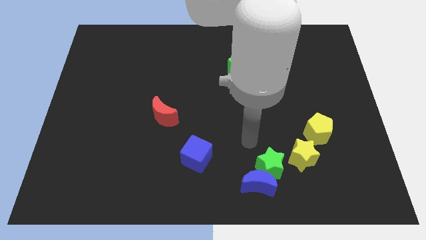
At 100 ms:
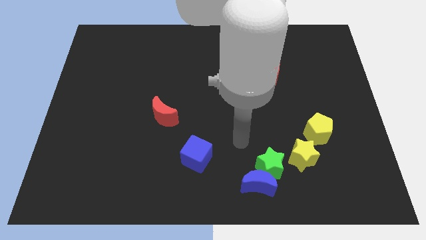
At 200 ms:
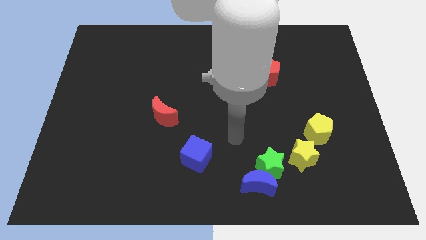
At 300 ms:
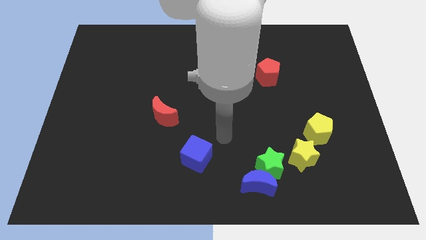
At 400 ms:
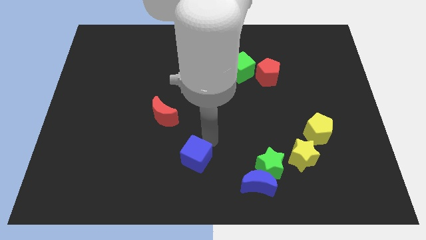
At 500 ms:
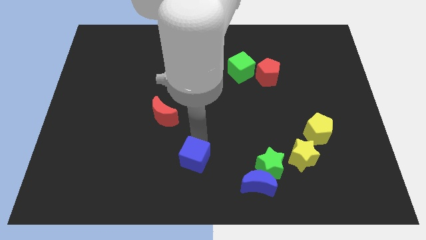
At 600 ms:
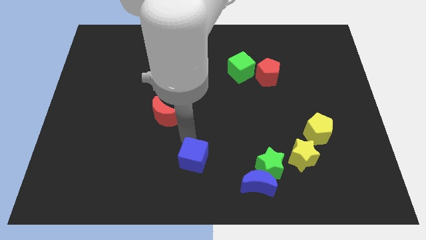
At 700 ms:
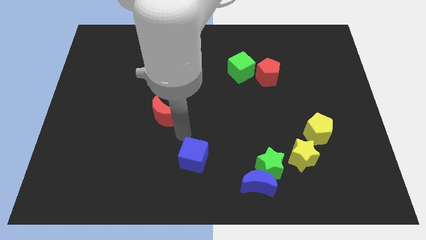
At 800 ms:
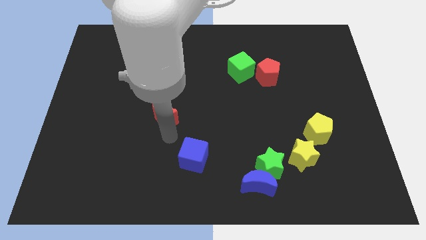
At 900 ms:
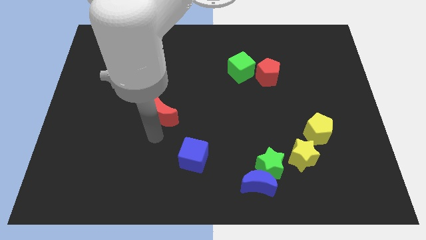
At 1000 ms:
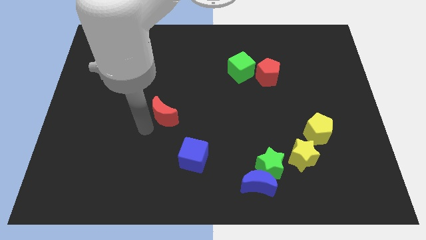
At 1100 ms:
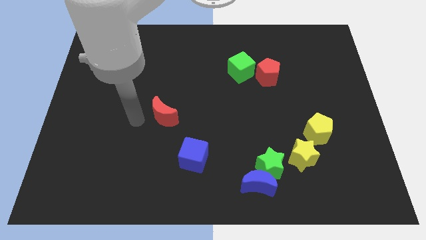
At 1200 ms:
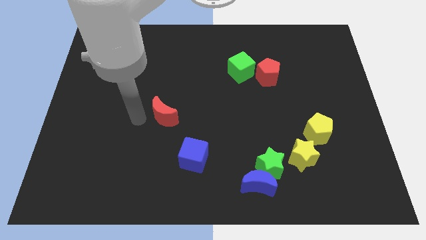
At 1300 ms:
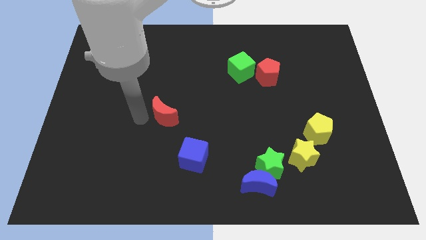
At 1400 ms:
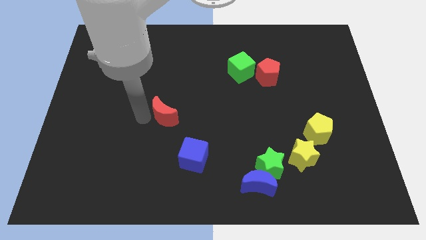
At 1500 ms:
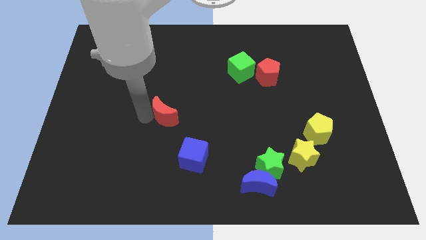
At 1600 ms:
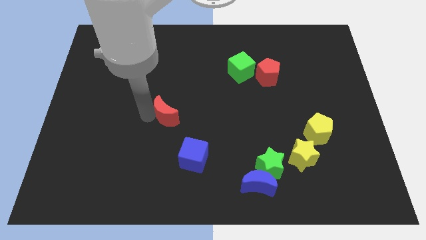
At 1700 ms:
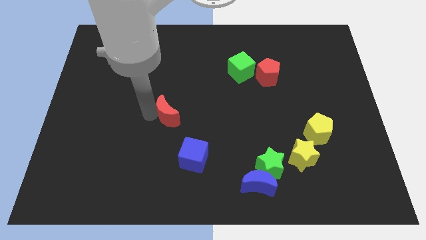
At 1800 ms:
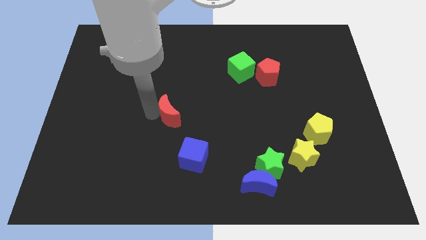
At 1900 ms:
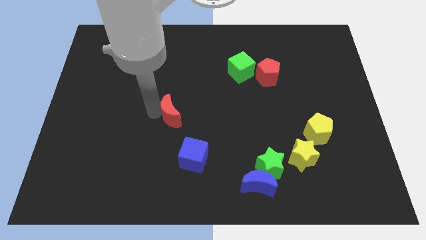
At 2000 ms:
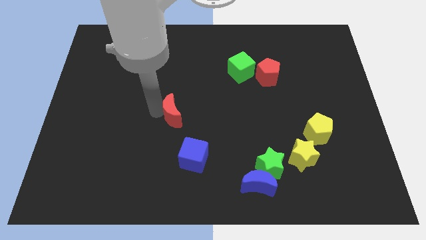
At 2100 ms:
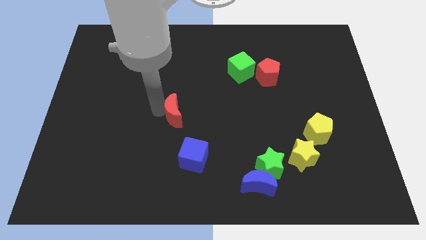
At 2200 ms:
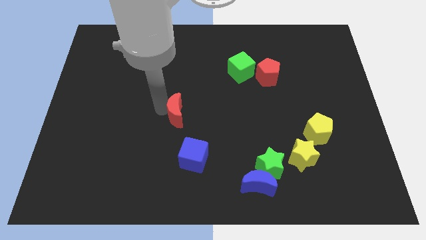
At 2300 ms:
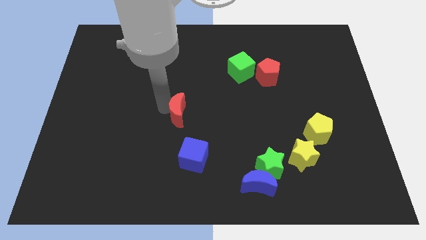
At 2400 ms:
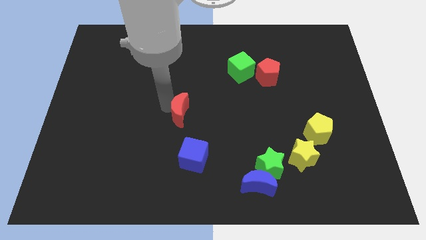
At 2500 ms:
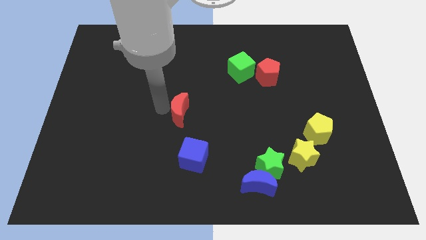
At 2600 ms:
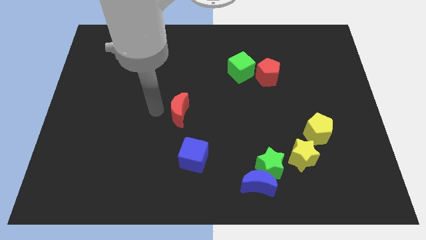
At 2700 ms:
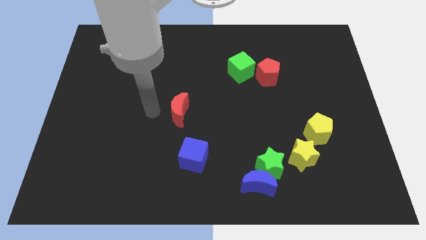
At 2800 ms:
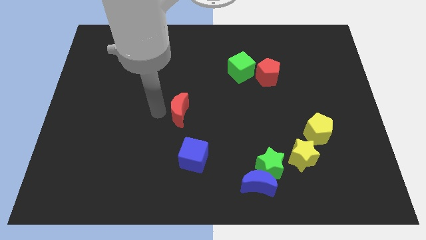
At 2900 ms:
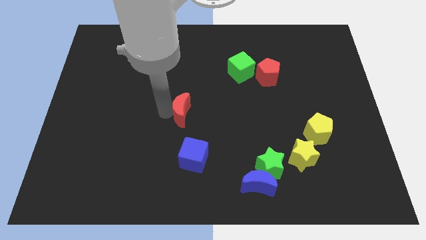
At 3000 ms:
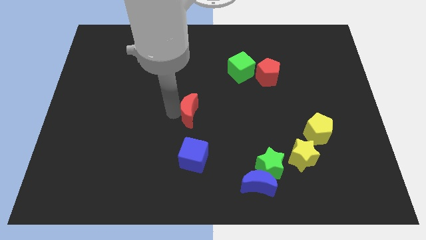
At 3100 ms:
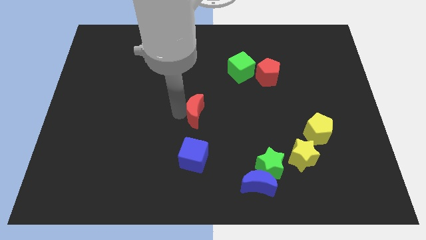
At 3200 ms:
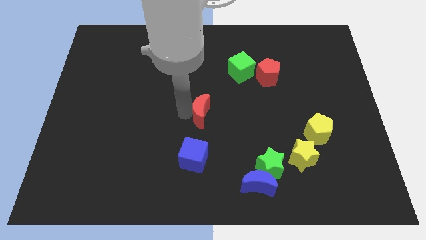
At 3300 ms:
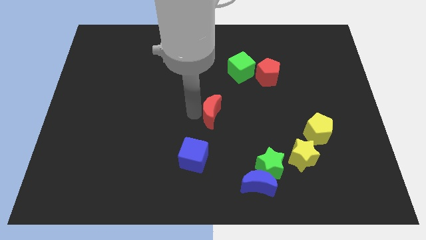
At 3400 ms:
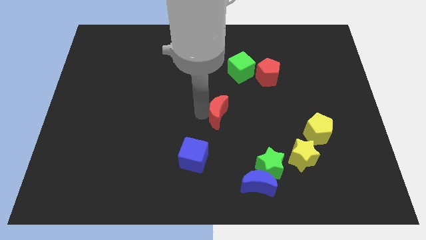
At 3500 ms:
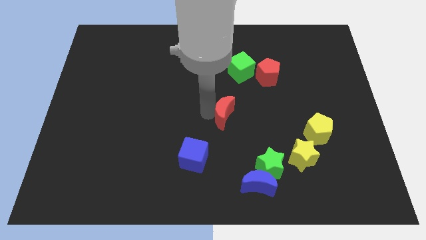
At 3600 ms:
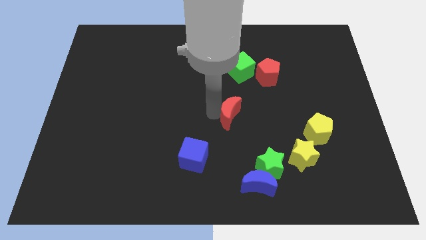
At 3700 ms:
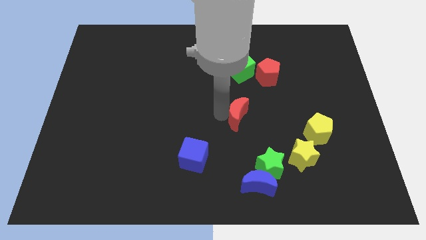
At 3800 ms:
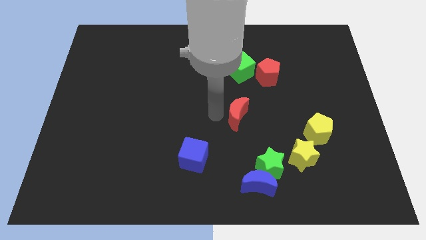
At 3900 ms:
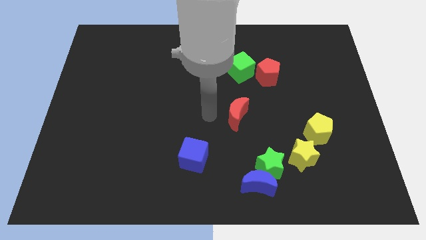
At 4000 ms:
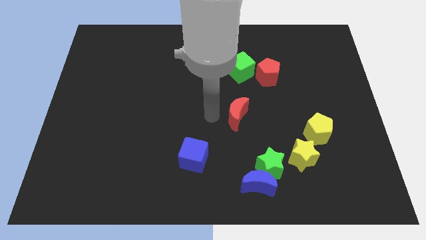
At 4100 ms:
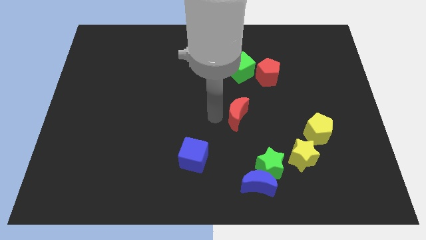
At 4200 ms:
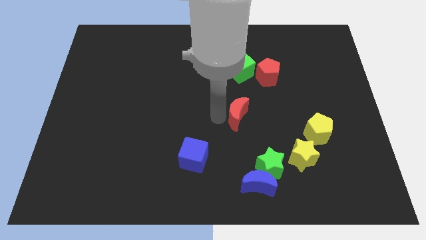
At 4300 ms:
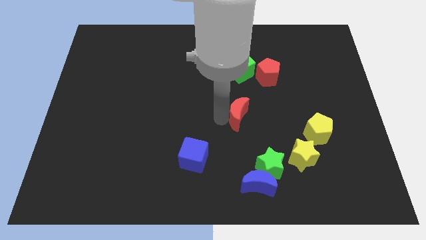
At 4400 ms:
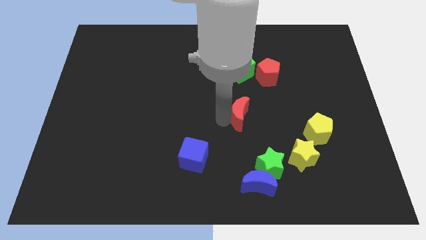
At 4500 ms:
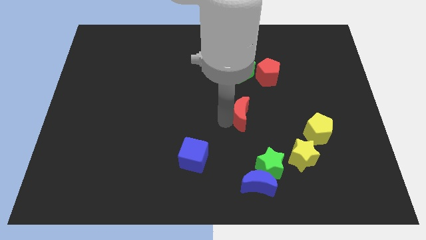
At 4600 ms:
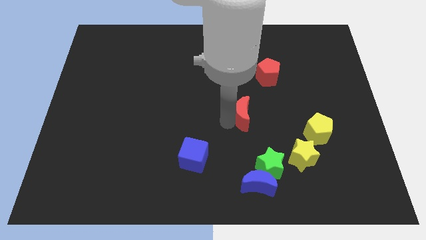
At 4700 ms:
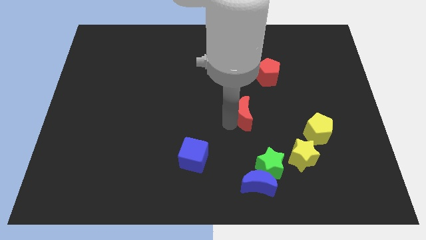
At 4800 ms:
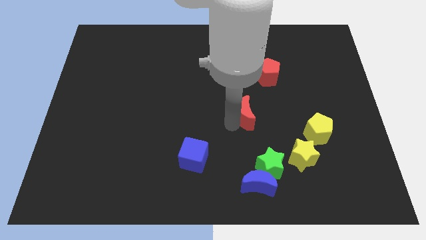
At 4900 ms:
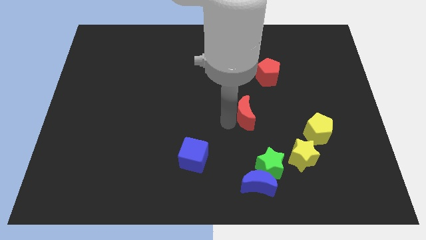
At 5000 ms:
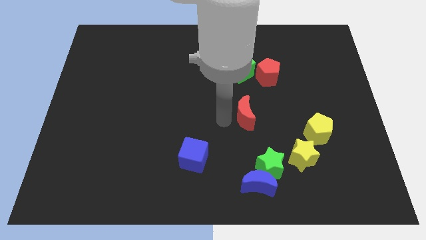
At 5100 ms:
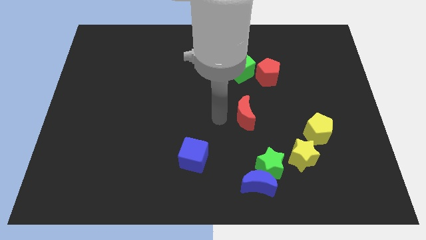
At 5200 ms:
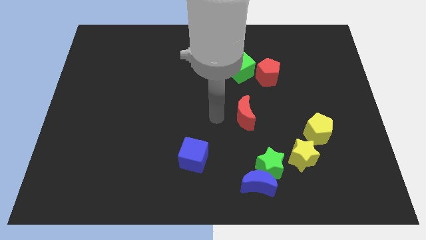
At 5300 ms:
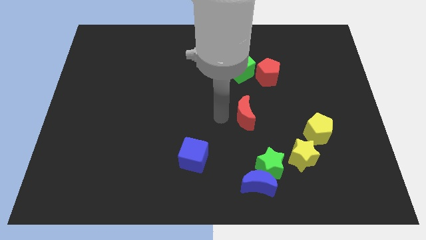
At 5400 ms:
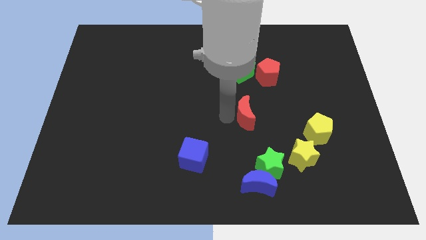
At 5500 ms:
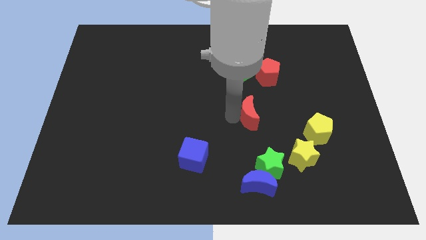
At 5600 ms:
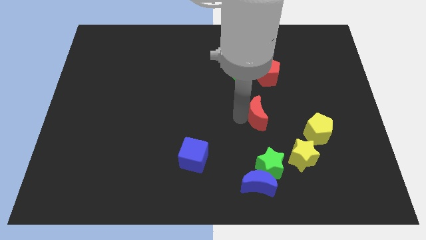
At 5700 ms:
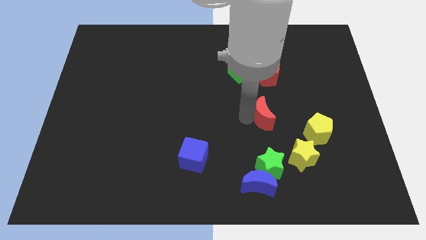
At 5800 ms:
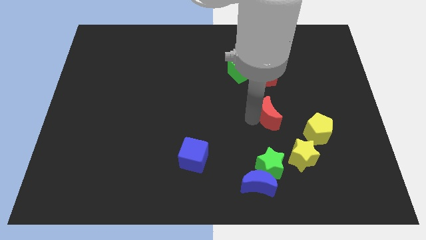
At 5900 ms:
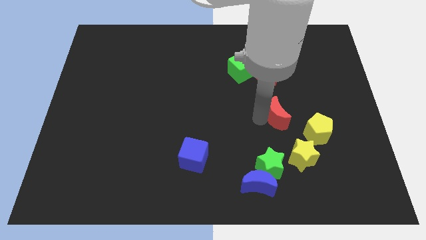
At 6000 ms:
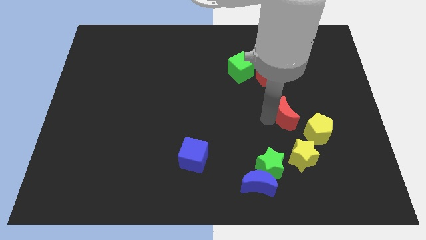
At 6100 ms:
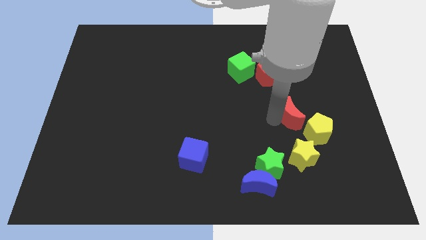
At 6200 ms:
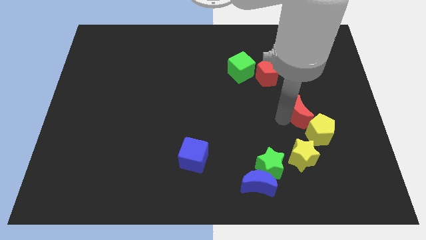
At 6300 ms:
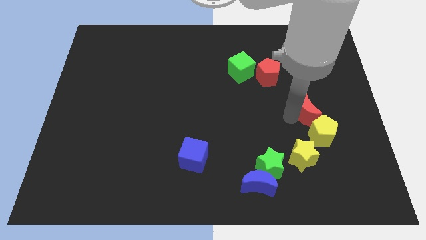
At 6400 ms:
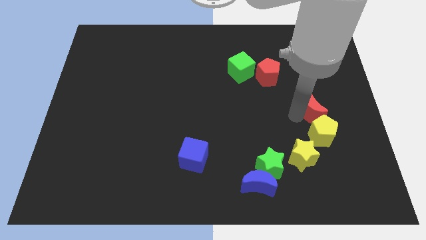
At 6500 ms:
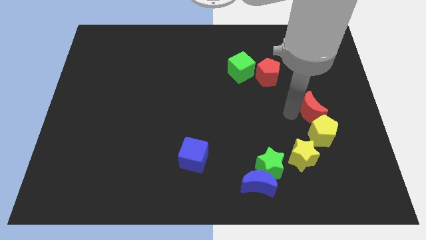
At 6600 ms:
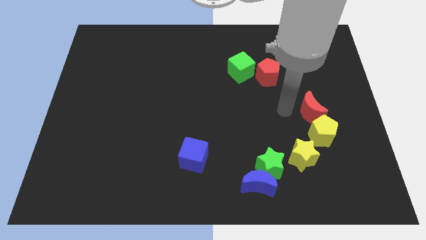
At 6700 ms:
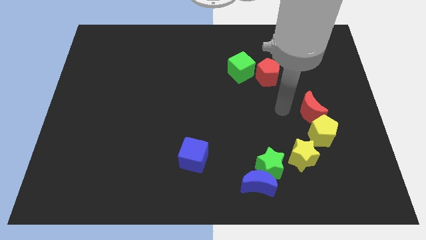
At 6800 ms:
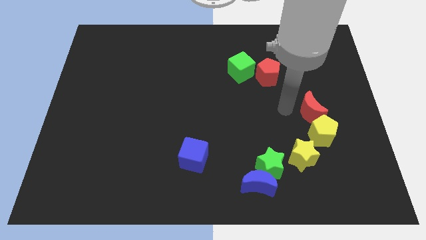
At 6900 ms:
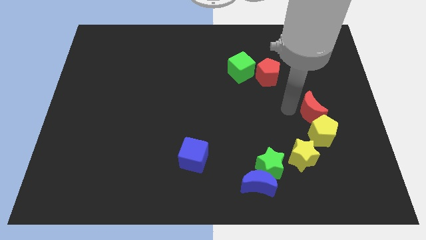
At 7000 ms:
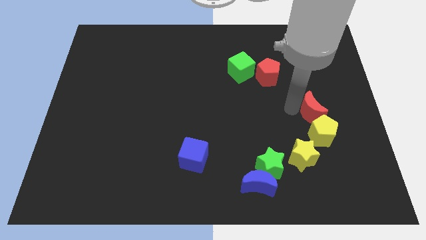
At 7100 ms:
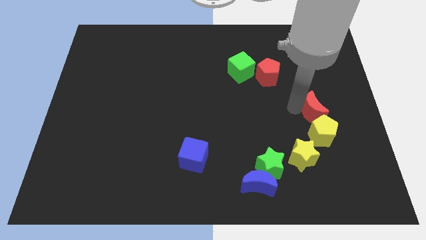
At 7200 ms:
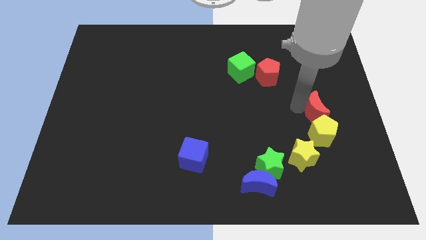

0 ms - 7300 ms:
move the red moon to the top right of the yellow pentagon

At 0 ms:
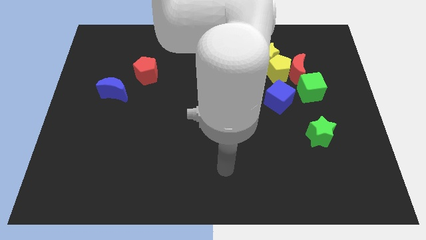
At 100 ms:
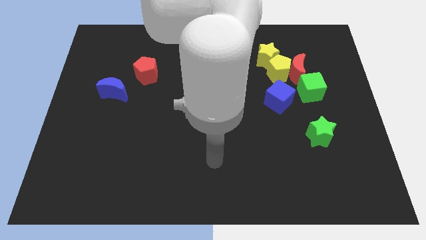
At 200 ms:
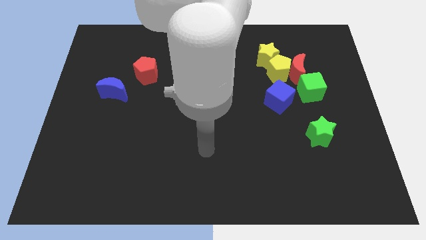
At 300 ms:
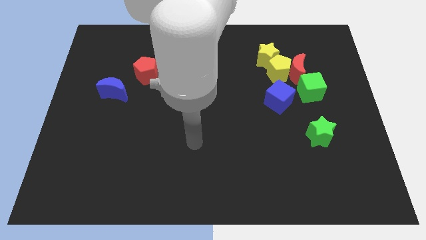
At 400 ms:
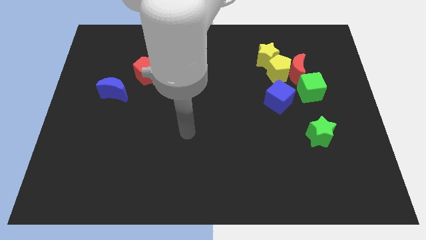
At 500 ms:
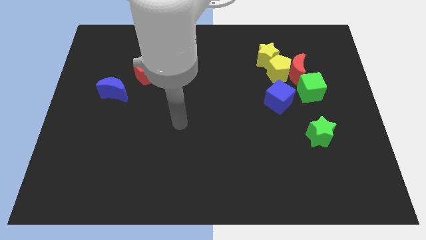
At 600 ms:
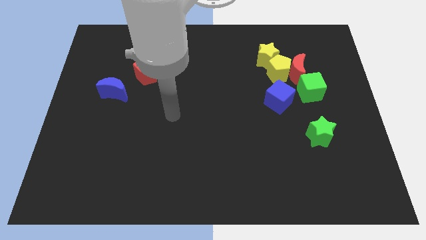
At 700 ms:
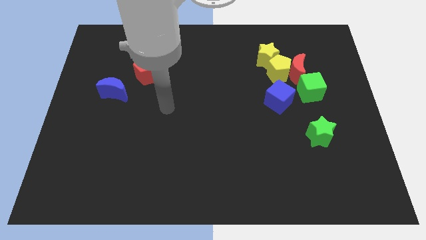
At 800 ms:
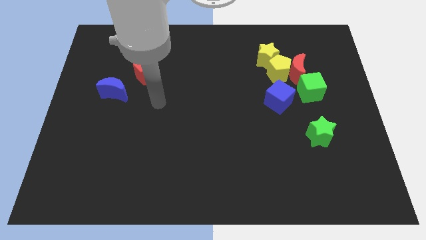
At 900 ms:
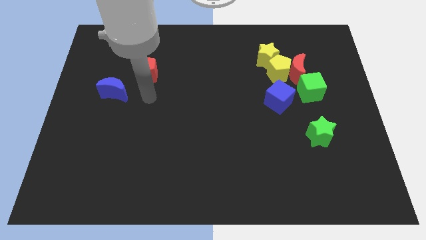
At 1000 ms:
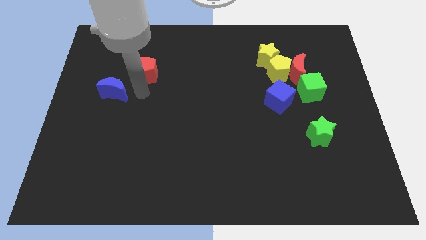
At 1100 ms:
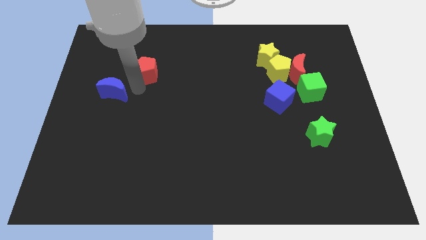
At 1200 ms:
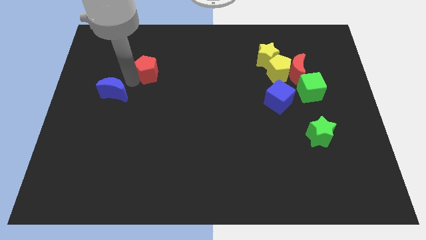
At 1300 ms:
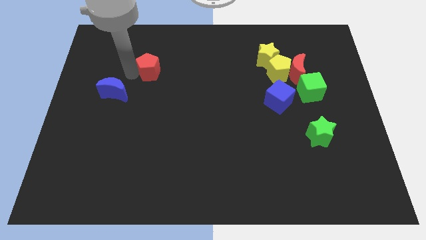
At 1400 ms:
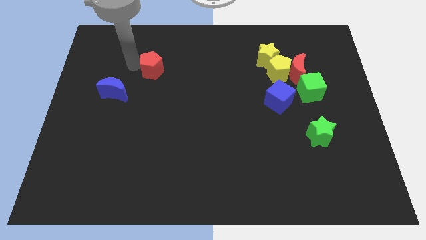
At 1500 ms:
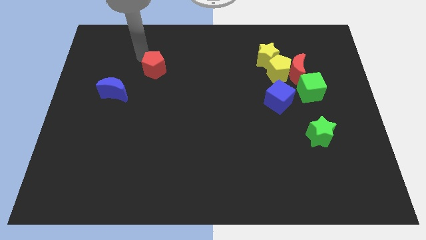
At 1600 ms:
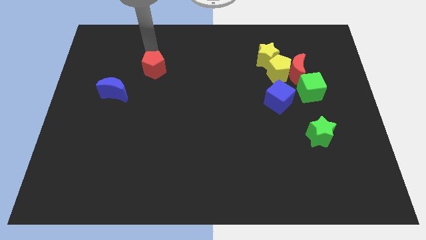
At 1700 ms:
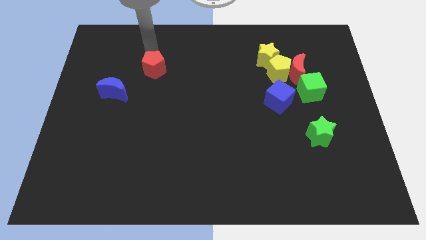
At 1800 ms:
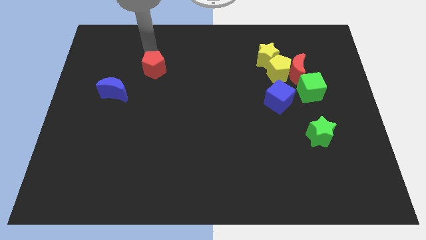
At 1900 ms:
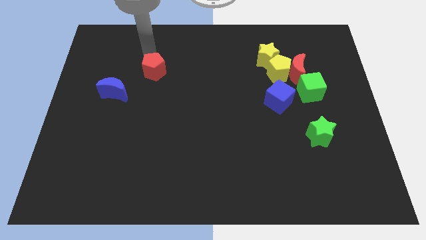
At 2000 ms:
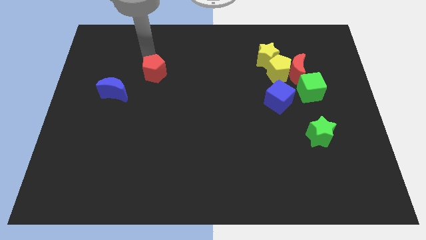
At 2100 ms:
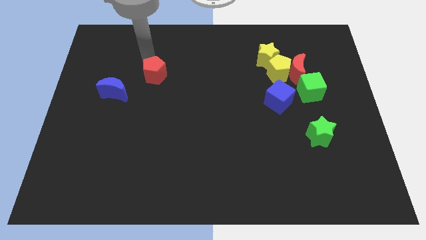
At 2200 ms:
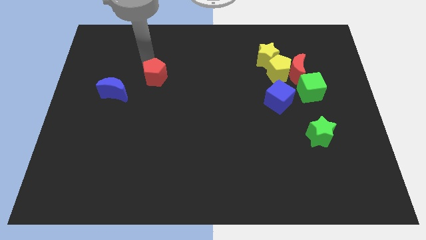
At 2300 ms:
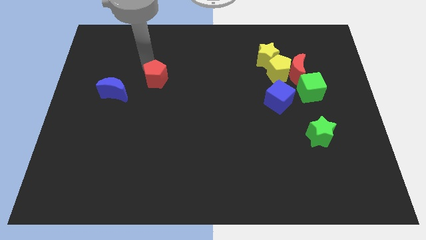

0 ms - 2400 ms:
slide the red pentagon right of the blue moon
